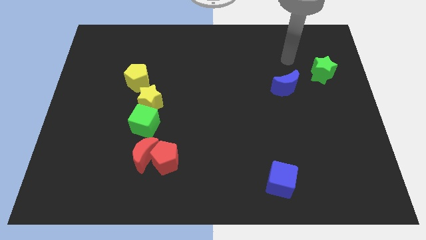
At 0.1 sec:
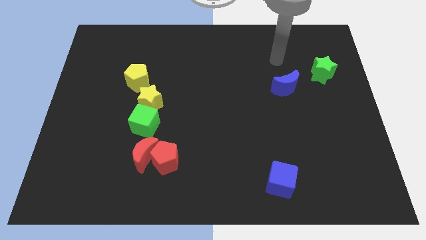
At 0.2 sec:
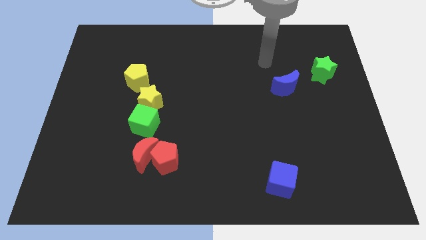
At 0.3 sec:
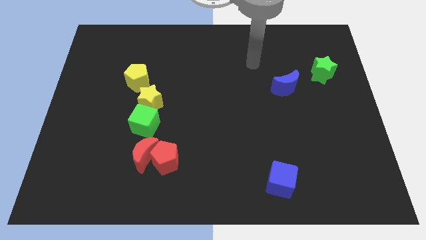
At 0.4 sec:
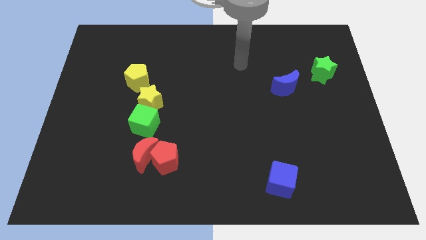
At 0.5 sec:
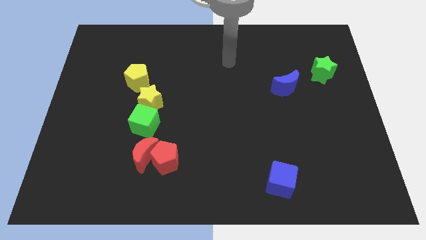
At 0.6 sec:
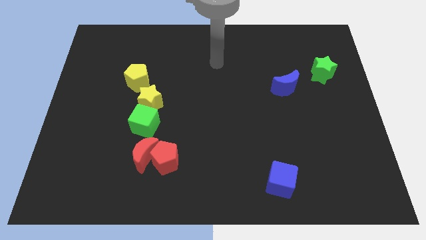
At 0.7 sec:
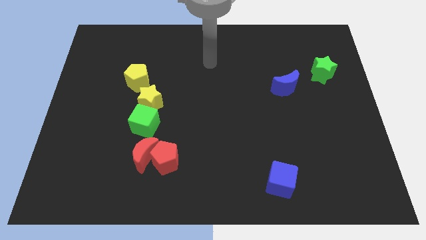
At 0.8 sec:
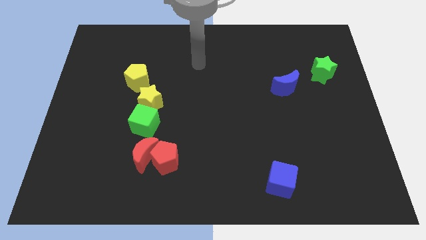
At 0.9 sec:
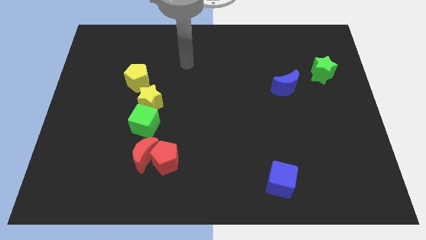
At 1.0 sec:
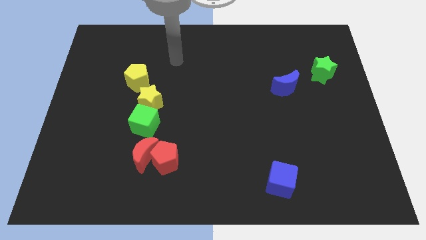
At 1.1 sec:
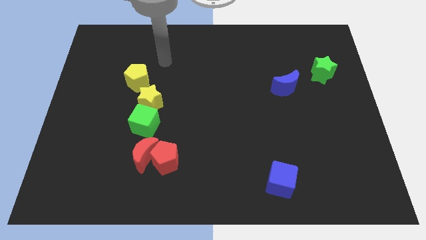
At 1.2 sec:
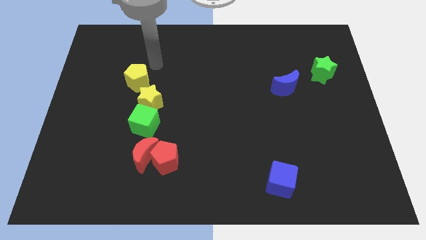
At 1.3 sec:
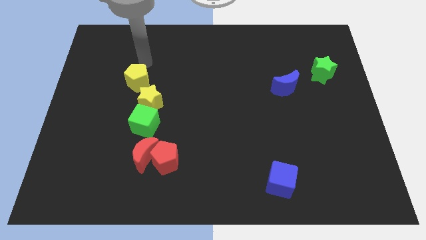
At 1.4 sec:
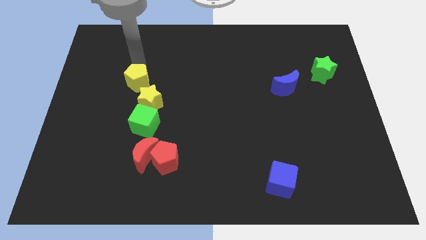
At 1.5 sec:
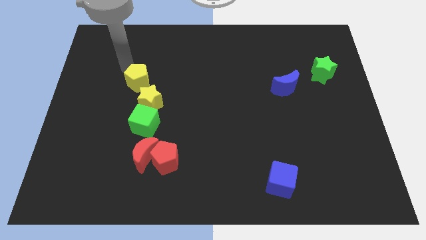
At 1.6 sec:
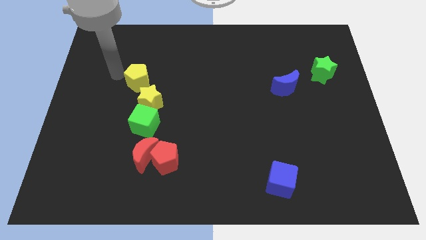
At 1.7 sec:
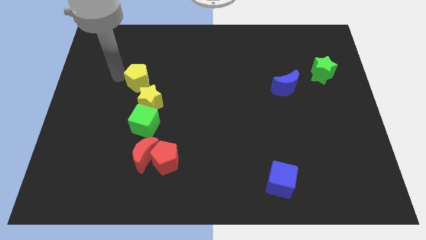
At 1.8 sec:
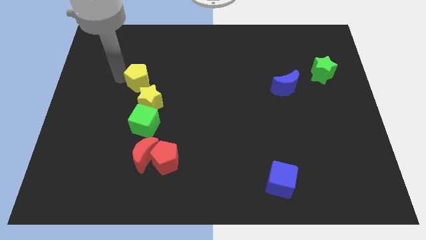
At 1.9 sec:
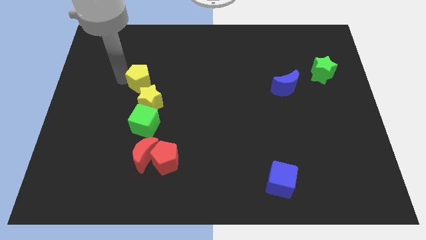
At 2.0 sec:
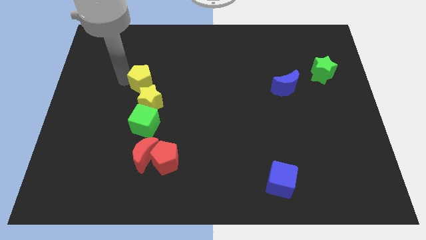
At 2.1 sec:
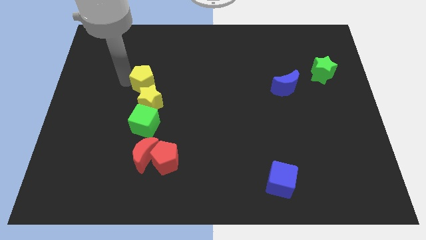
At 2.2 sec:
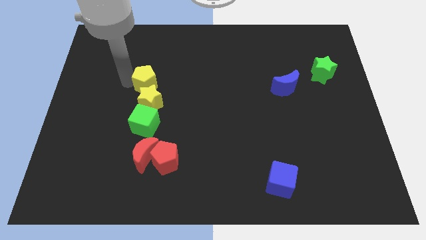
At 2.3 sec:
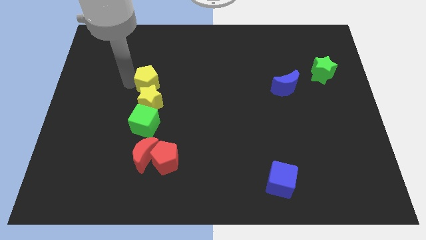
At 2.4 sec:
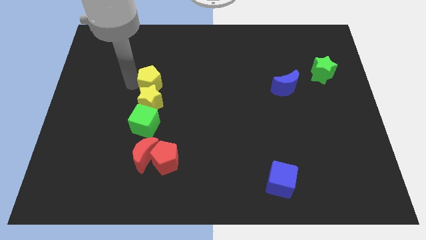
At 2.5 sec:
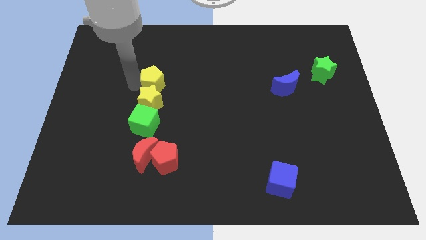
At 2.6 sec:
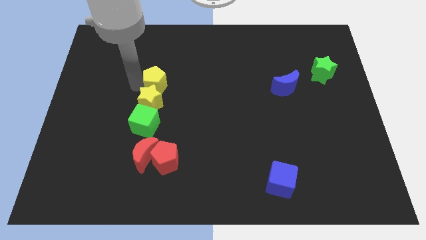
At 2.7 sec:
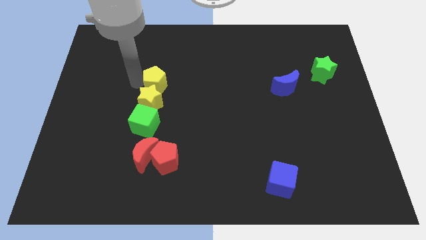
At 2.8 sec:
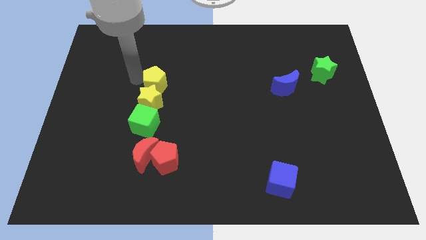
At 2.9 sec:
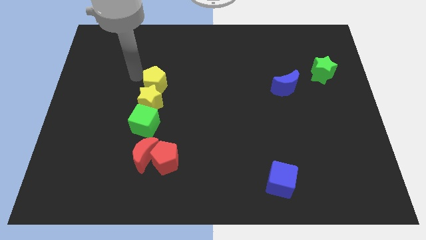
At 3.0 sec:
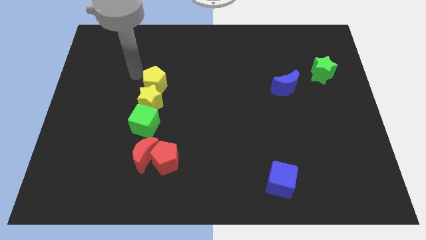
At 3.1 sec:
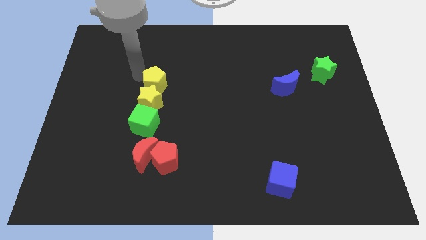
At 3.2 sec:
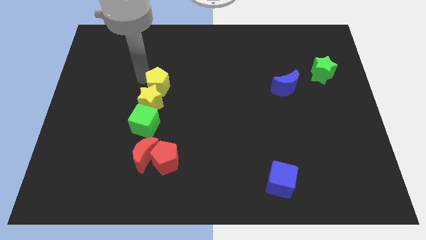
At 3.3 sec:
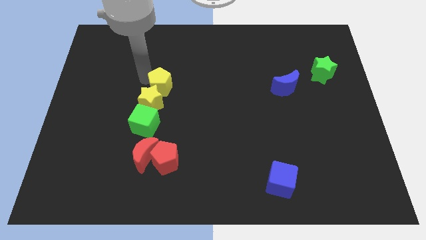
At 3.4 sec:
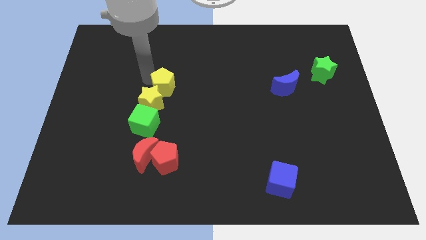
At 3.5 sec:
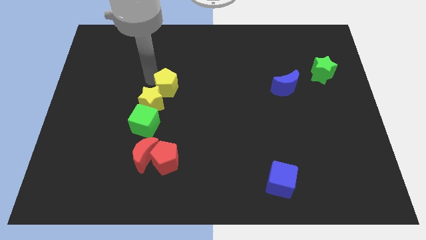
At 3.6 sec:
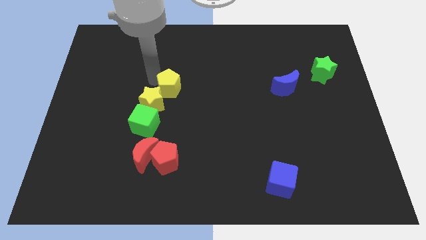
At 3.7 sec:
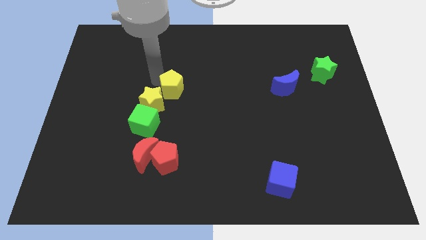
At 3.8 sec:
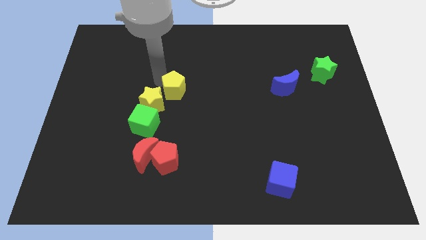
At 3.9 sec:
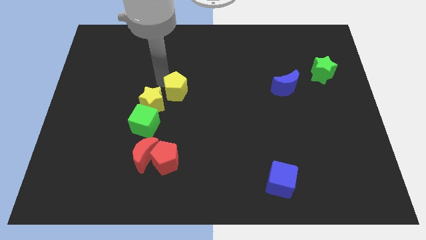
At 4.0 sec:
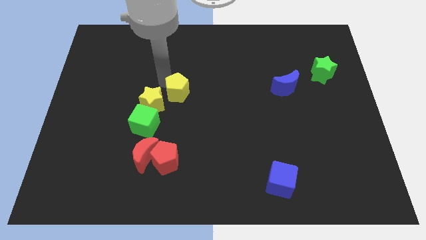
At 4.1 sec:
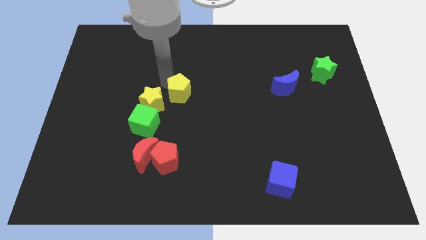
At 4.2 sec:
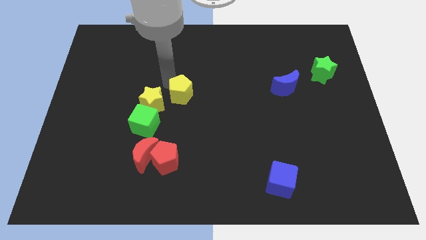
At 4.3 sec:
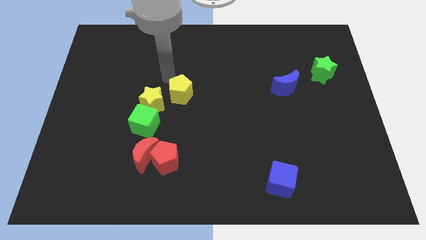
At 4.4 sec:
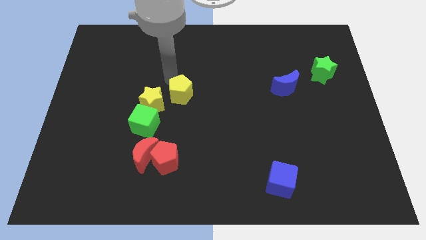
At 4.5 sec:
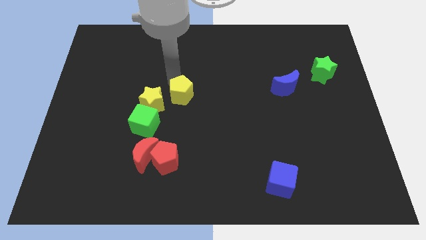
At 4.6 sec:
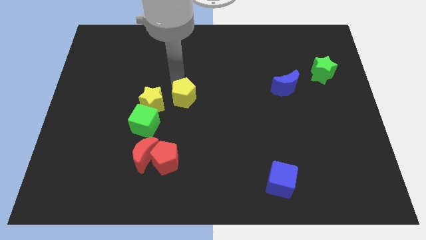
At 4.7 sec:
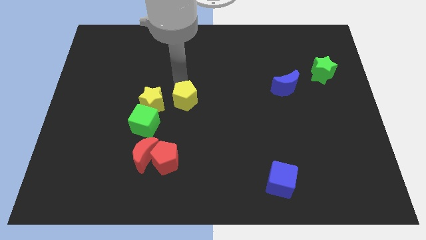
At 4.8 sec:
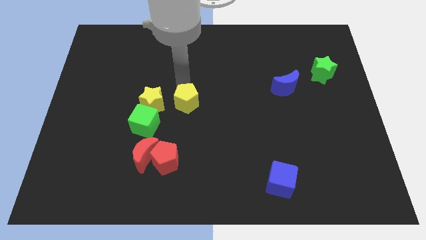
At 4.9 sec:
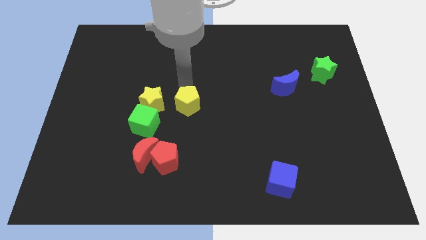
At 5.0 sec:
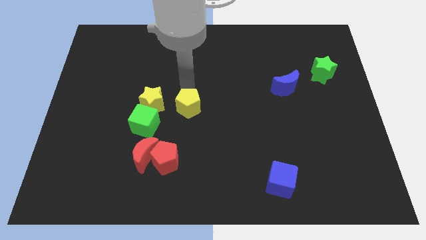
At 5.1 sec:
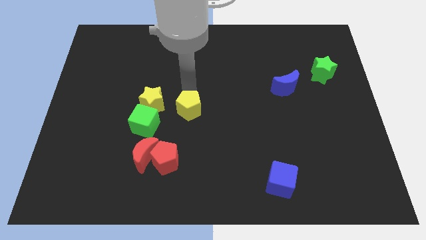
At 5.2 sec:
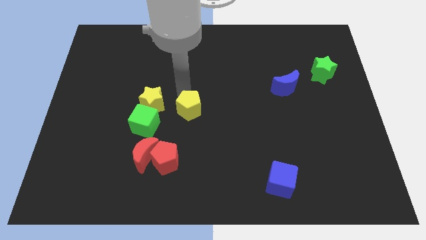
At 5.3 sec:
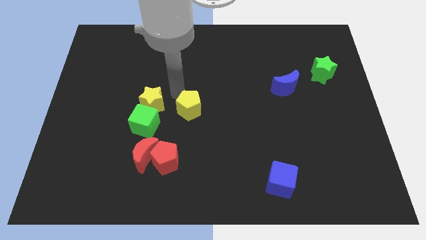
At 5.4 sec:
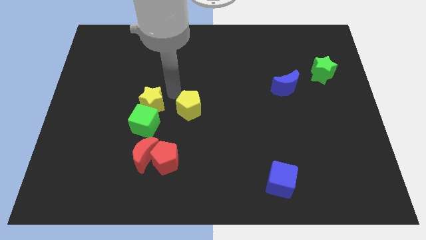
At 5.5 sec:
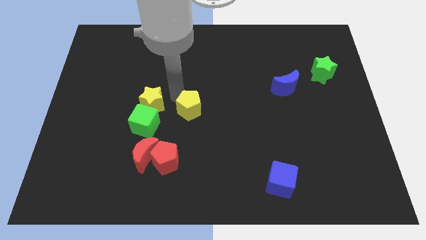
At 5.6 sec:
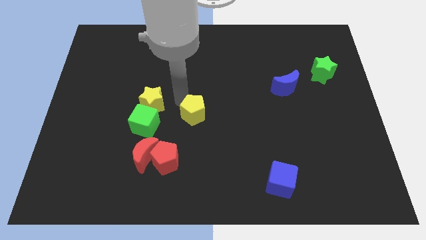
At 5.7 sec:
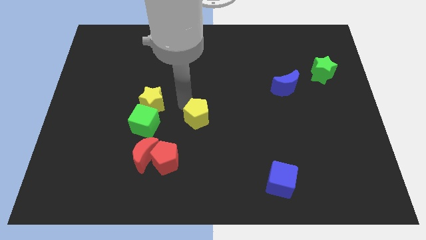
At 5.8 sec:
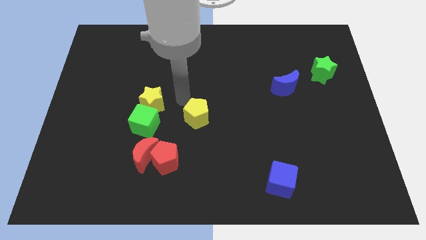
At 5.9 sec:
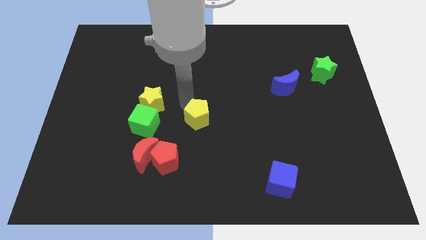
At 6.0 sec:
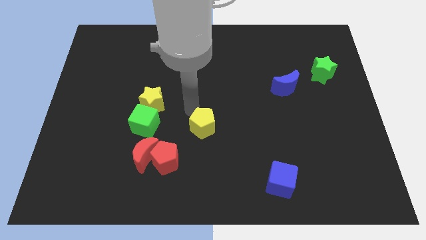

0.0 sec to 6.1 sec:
slide the yellow pentagon downwards and then right

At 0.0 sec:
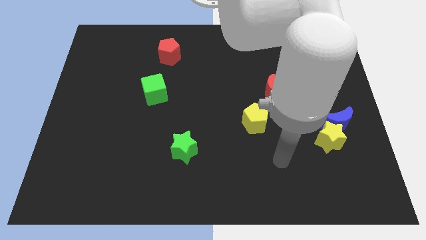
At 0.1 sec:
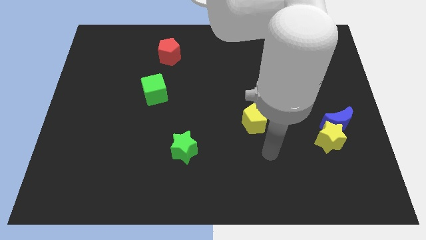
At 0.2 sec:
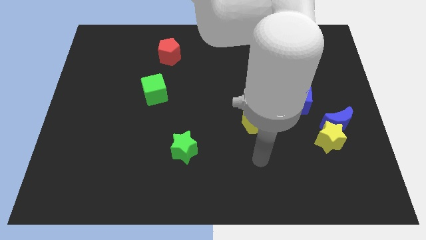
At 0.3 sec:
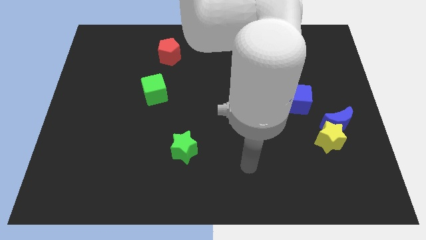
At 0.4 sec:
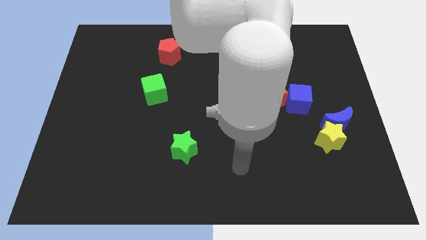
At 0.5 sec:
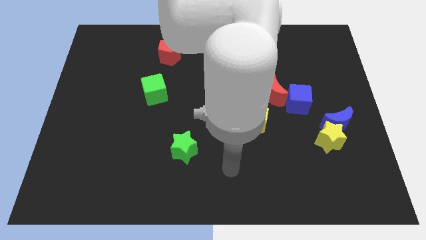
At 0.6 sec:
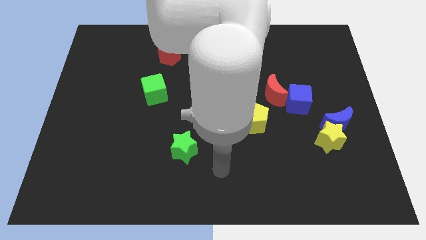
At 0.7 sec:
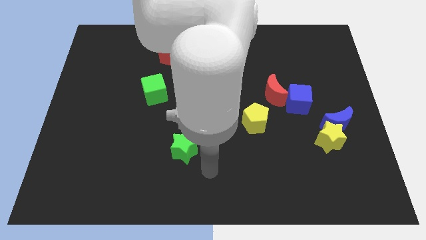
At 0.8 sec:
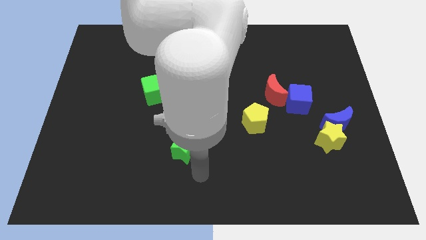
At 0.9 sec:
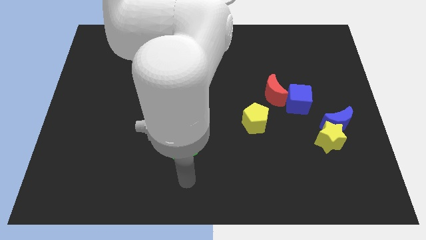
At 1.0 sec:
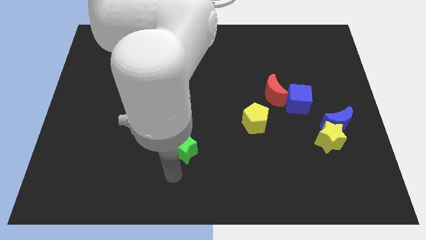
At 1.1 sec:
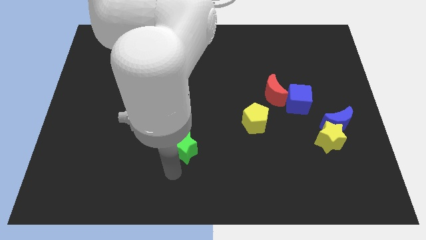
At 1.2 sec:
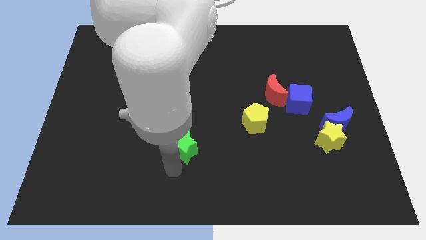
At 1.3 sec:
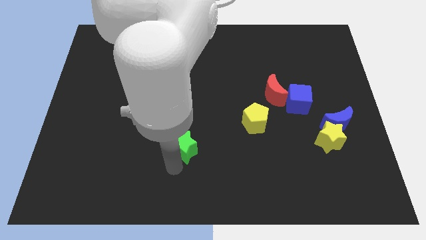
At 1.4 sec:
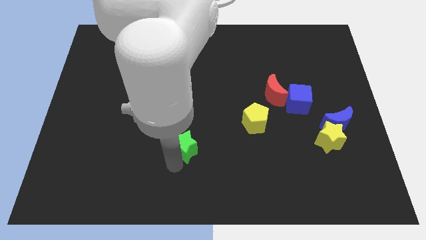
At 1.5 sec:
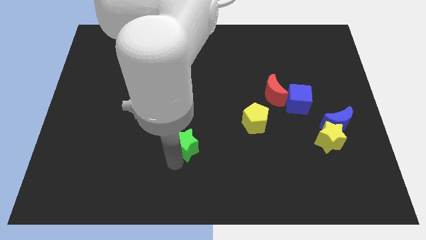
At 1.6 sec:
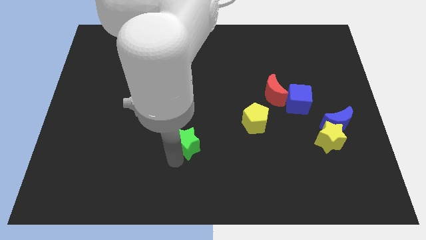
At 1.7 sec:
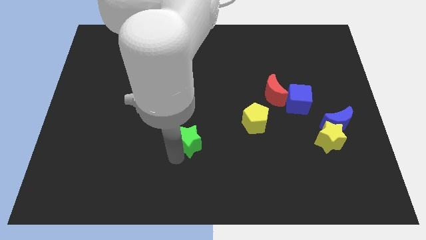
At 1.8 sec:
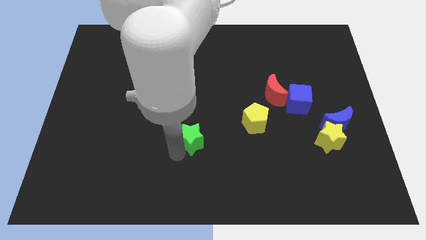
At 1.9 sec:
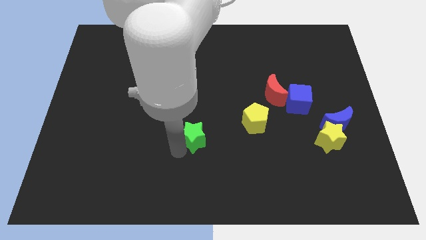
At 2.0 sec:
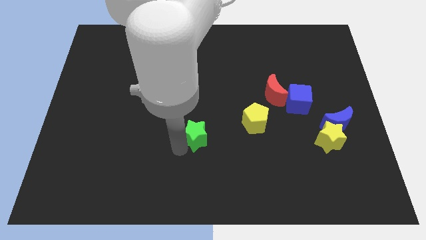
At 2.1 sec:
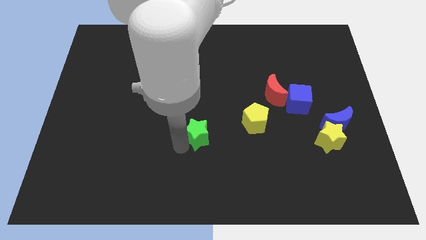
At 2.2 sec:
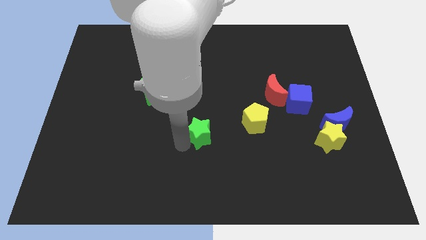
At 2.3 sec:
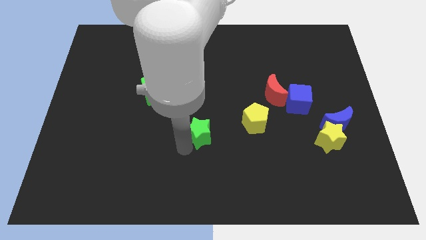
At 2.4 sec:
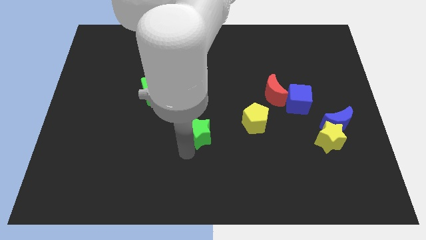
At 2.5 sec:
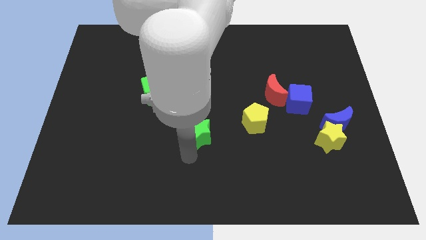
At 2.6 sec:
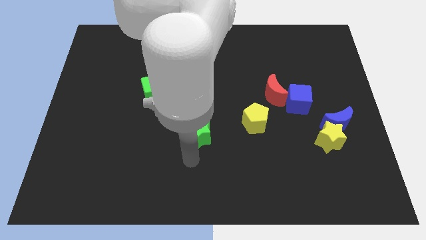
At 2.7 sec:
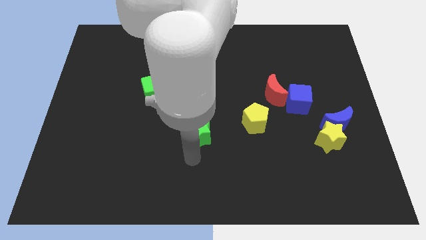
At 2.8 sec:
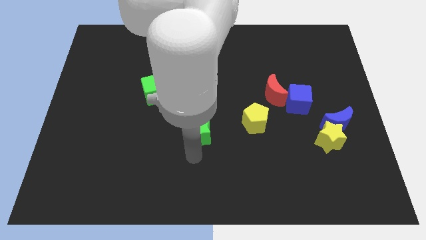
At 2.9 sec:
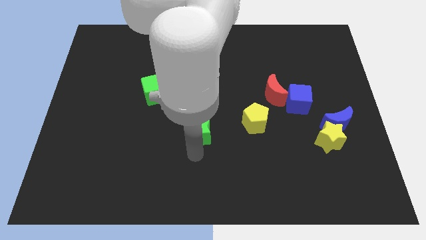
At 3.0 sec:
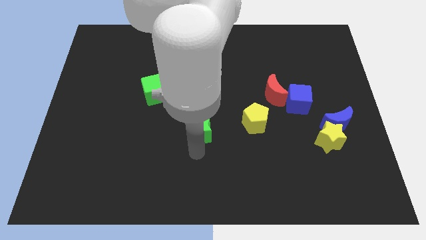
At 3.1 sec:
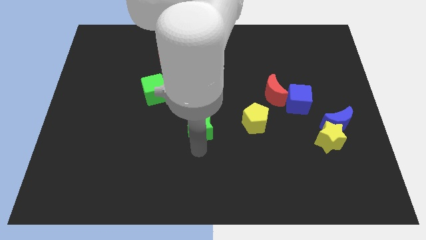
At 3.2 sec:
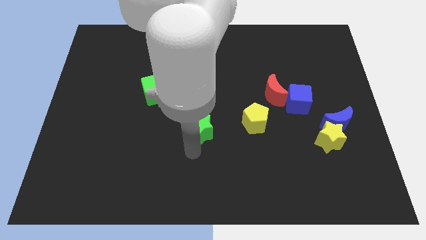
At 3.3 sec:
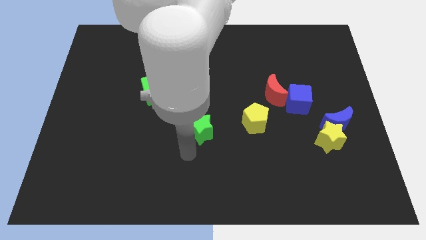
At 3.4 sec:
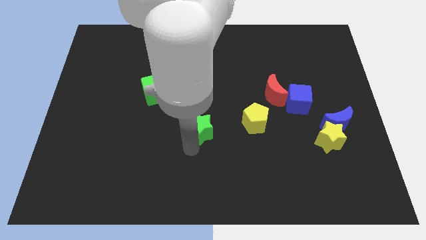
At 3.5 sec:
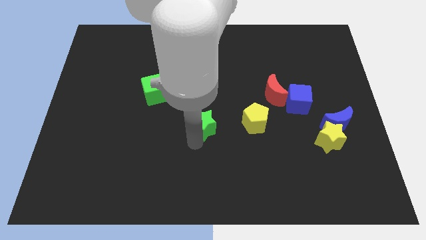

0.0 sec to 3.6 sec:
slightly move the green star diagonally up and right
